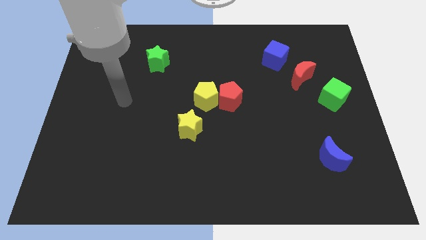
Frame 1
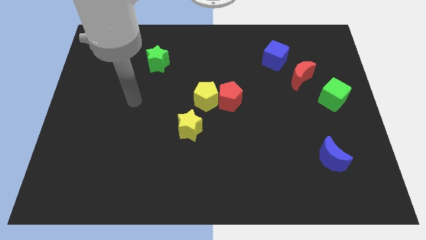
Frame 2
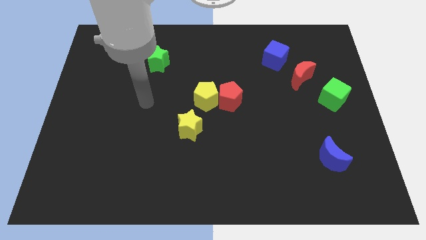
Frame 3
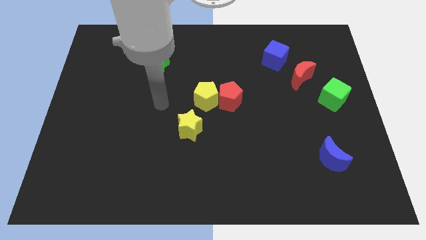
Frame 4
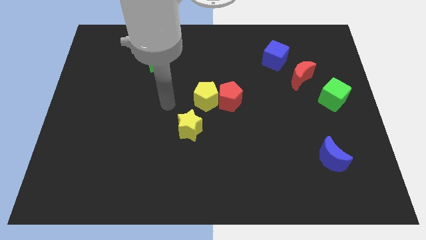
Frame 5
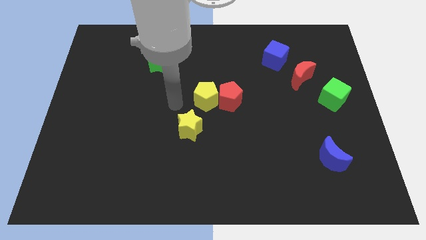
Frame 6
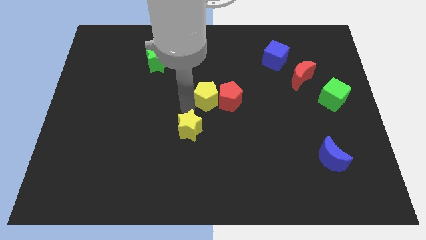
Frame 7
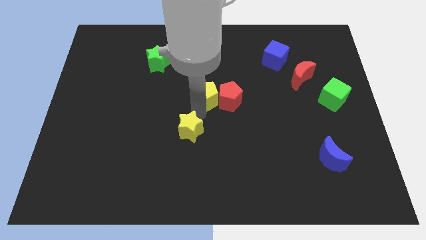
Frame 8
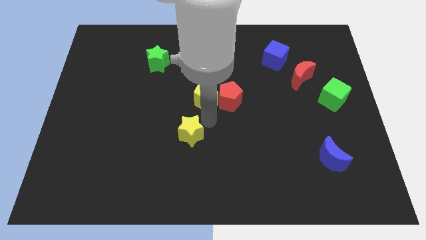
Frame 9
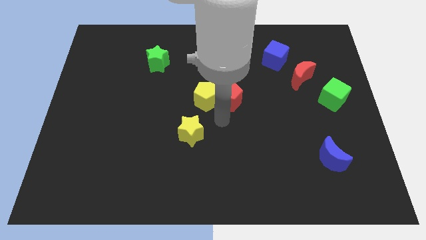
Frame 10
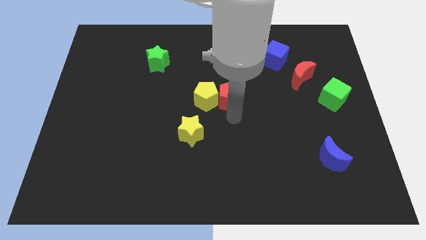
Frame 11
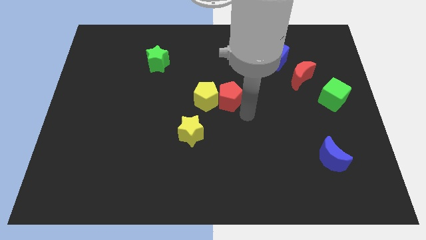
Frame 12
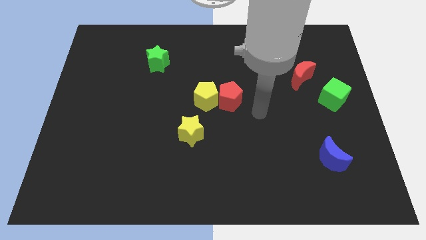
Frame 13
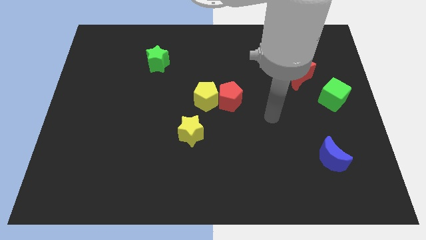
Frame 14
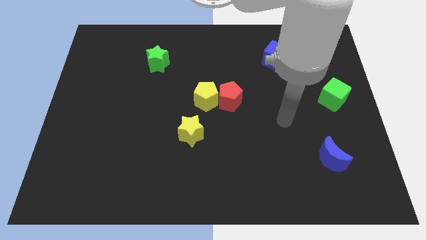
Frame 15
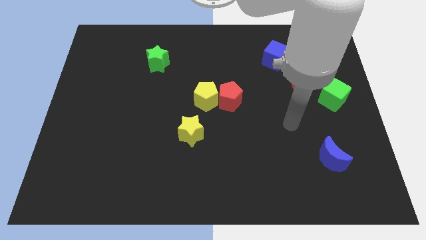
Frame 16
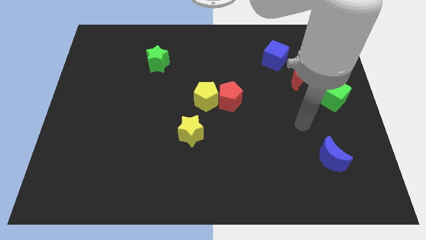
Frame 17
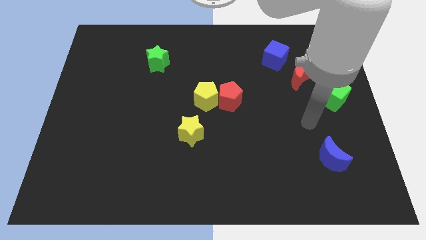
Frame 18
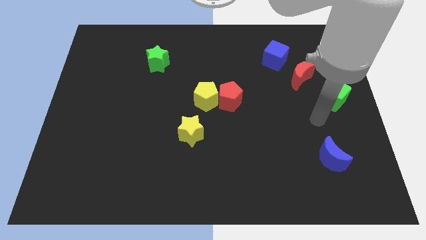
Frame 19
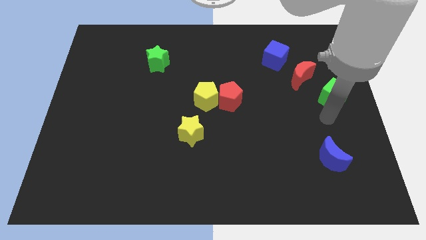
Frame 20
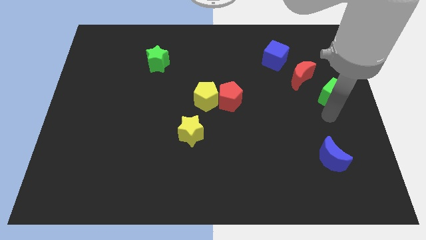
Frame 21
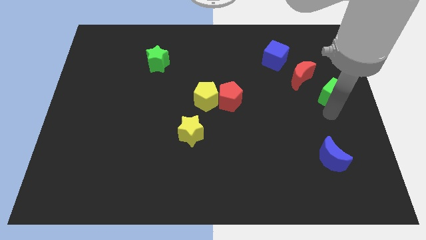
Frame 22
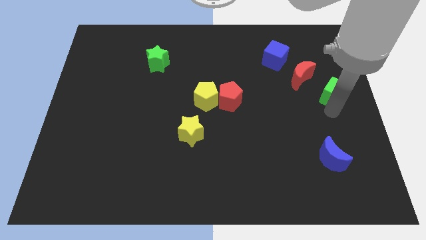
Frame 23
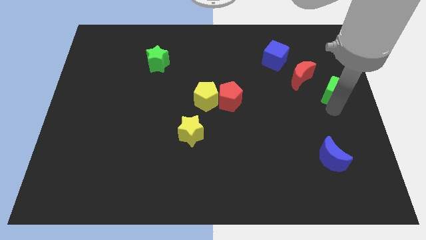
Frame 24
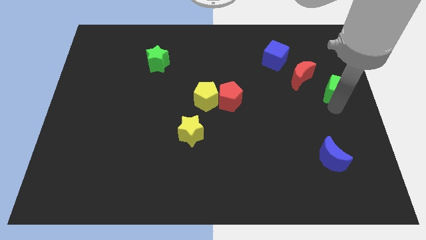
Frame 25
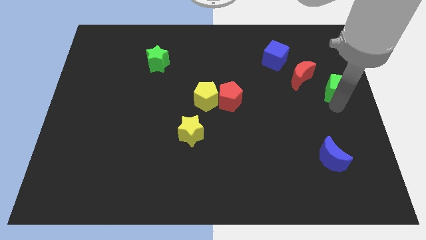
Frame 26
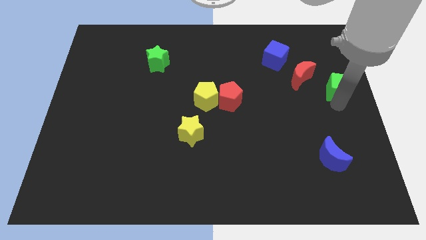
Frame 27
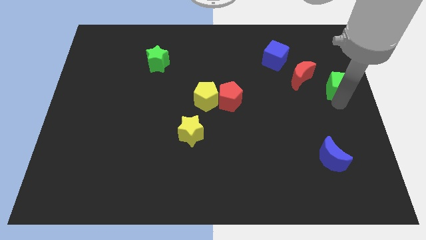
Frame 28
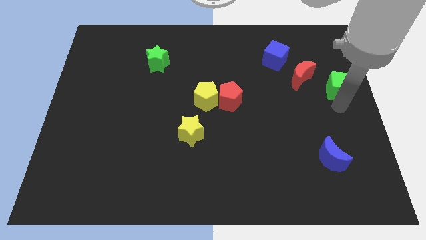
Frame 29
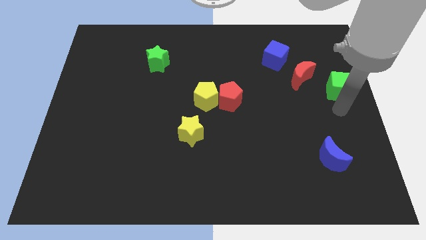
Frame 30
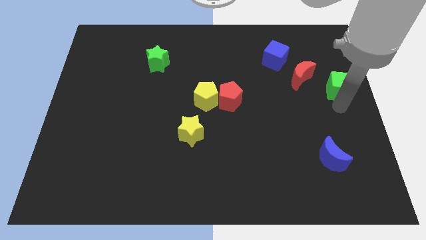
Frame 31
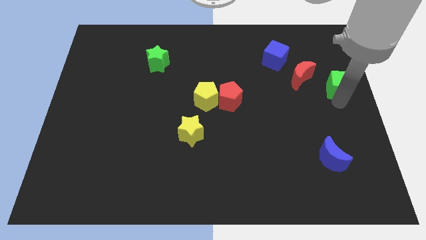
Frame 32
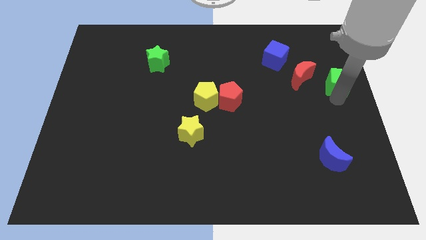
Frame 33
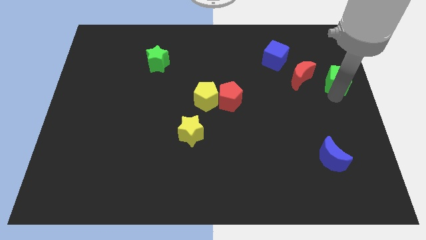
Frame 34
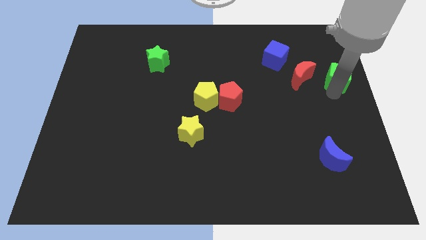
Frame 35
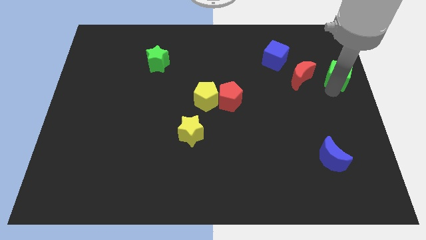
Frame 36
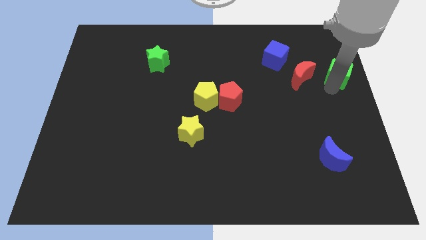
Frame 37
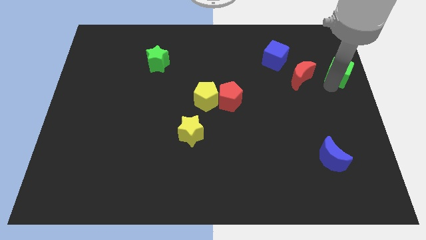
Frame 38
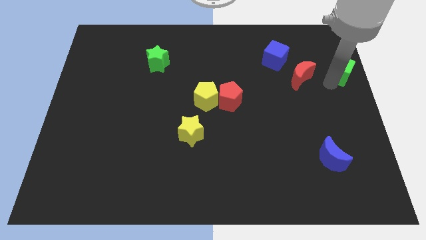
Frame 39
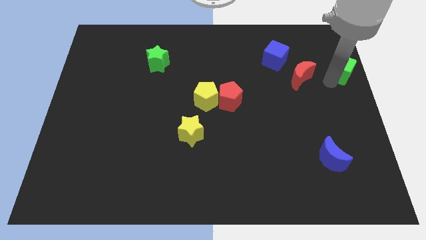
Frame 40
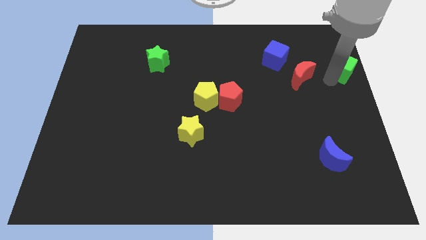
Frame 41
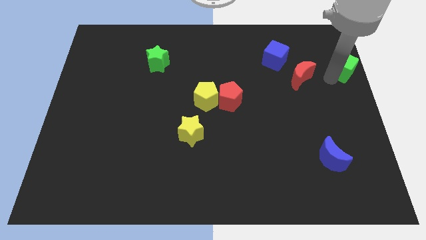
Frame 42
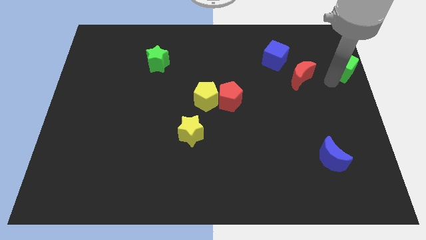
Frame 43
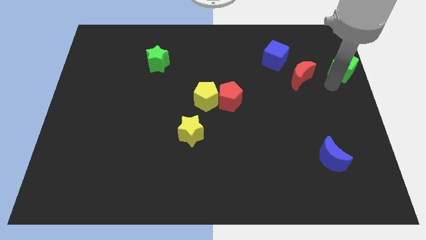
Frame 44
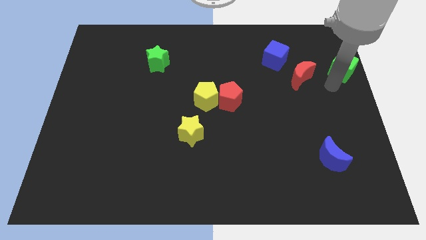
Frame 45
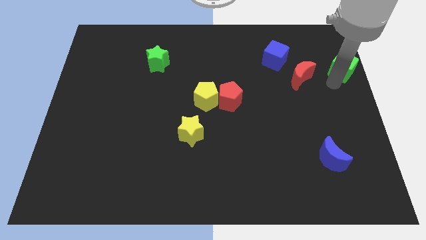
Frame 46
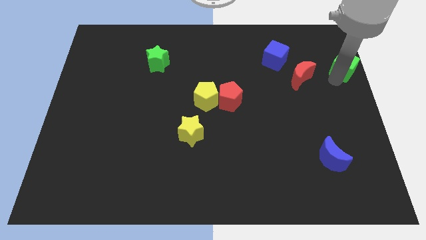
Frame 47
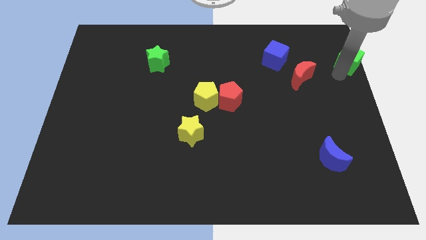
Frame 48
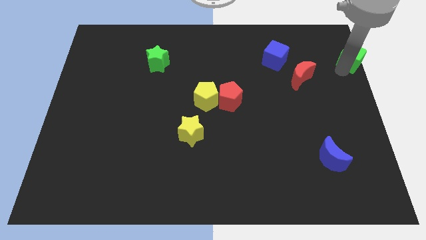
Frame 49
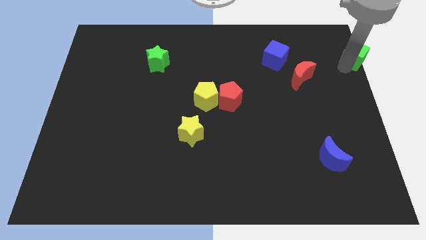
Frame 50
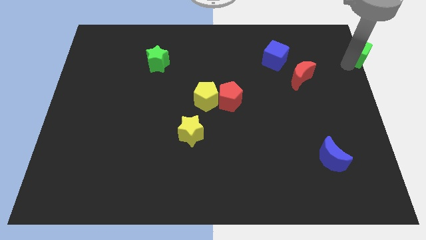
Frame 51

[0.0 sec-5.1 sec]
slide the green cube to the top right

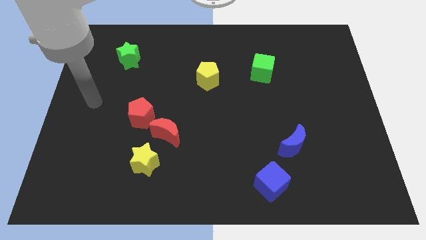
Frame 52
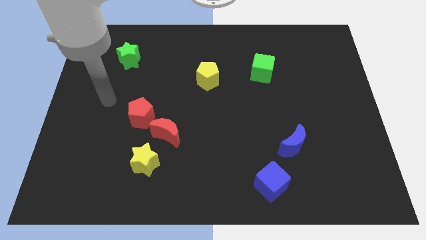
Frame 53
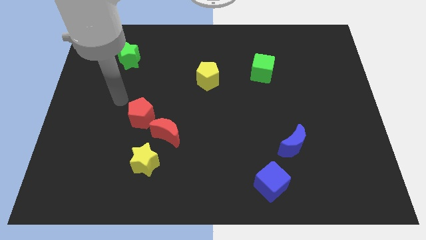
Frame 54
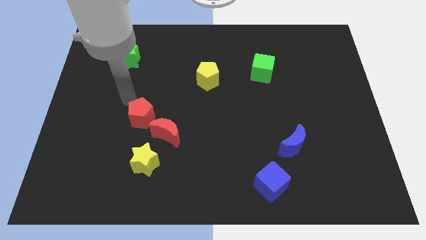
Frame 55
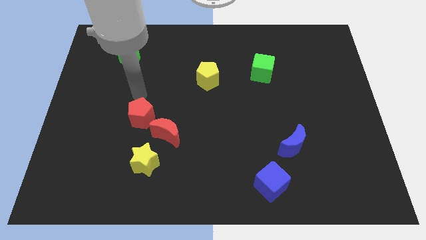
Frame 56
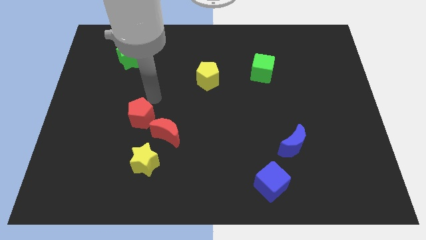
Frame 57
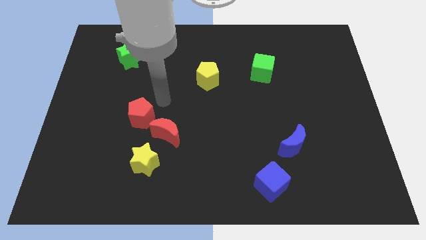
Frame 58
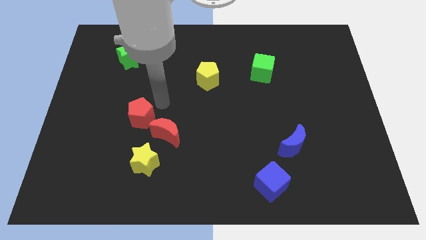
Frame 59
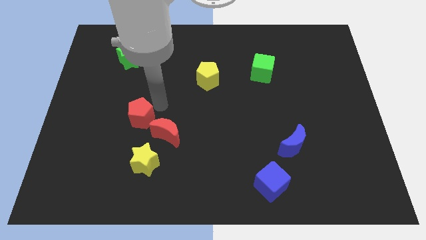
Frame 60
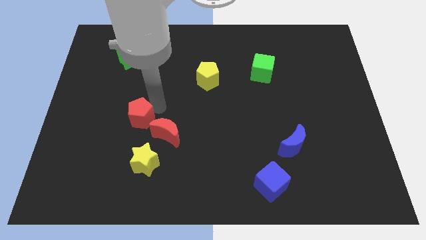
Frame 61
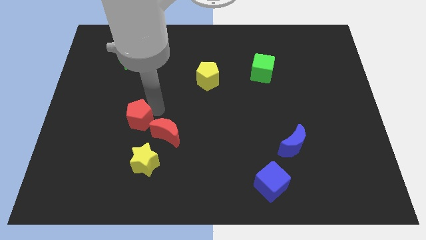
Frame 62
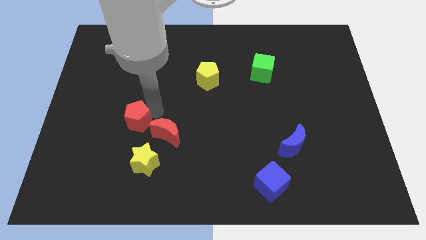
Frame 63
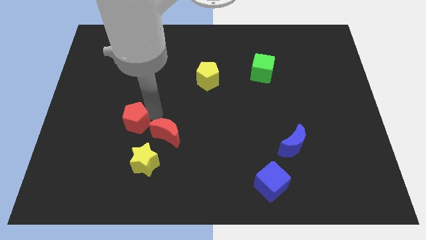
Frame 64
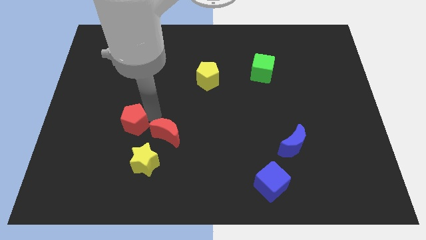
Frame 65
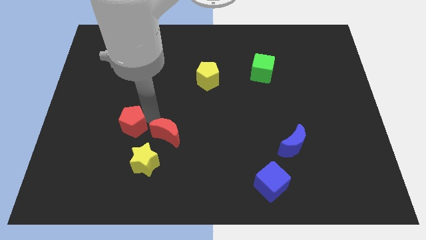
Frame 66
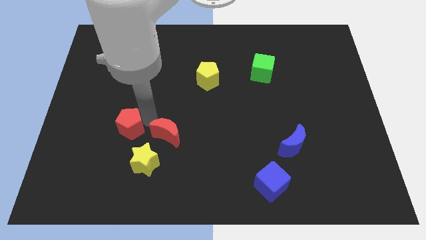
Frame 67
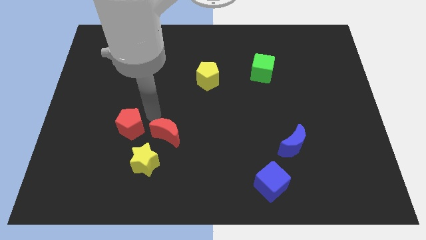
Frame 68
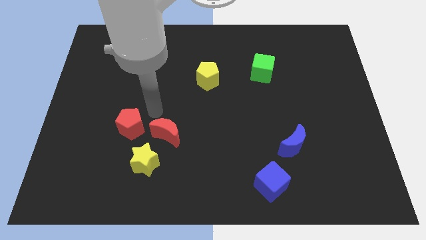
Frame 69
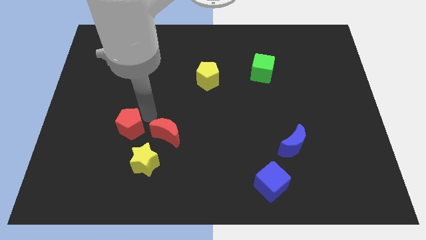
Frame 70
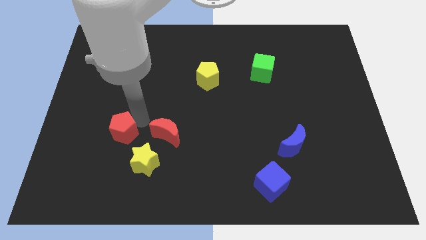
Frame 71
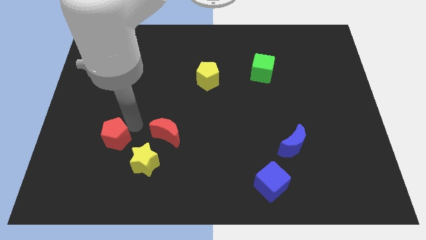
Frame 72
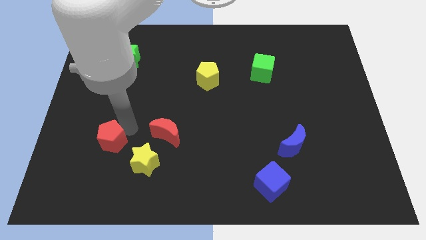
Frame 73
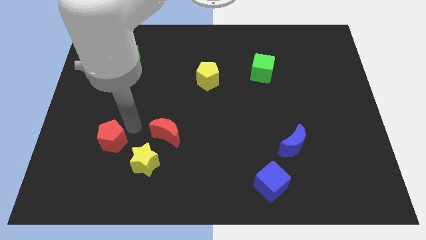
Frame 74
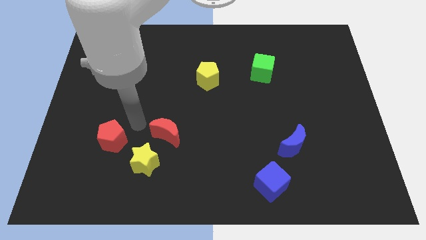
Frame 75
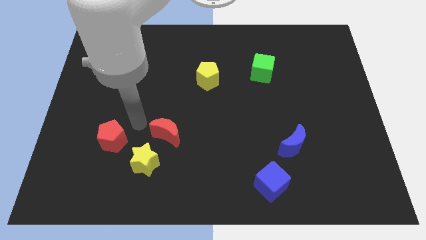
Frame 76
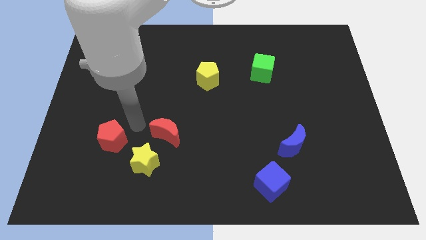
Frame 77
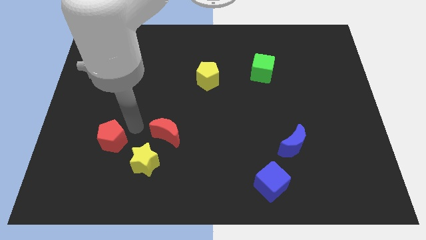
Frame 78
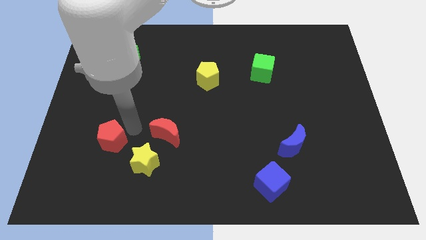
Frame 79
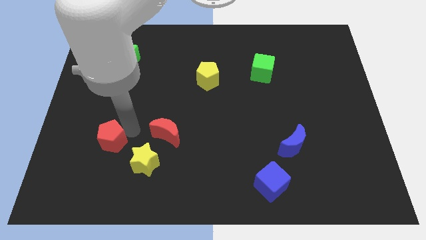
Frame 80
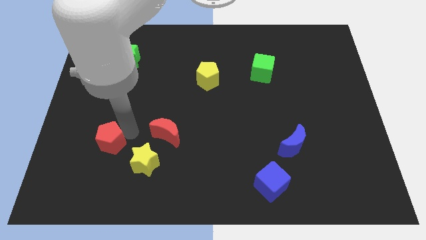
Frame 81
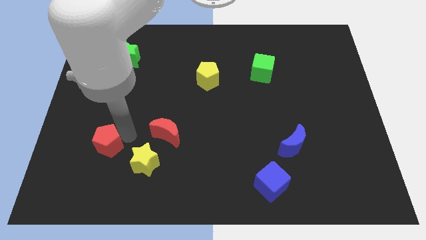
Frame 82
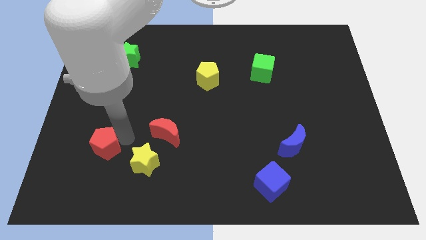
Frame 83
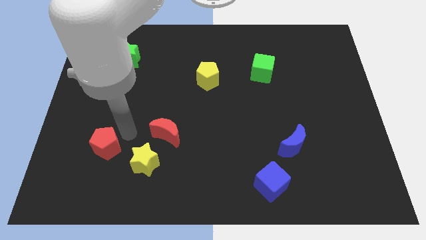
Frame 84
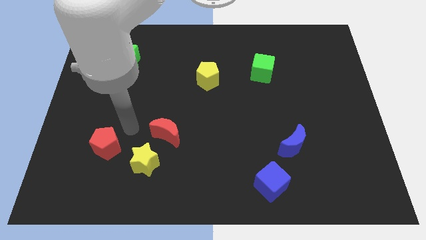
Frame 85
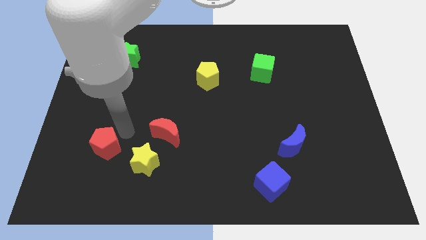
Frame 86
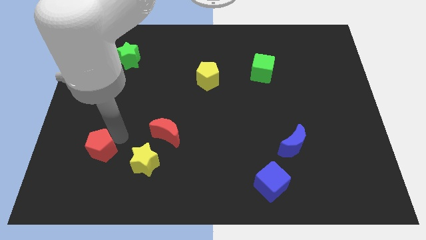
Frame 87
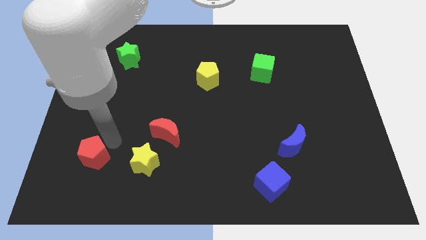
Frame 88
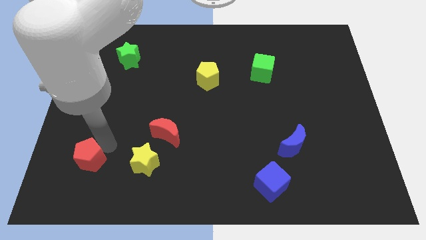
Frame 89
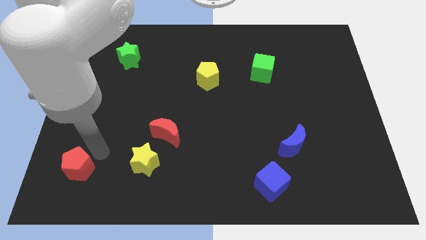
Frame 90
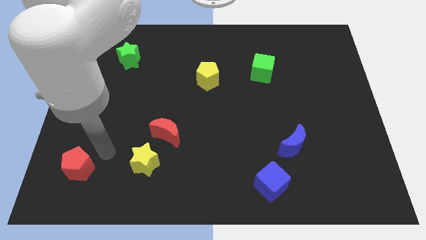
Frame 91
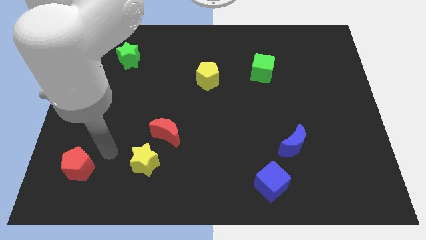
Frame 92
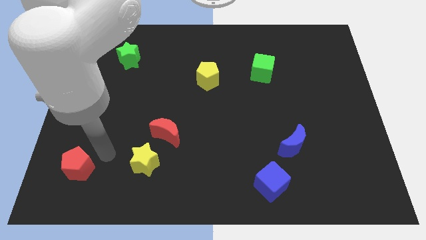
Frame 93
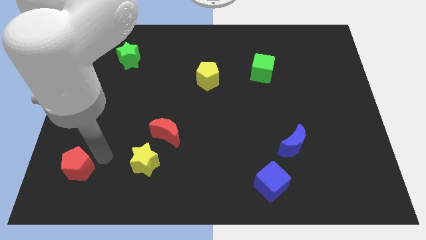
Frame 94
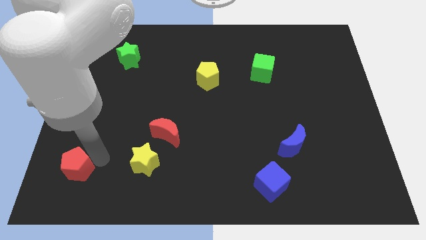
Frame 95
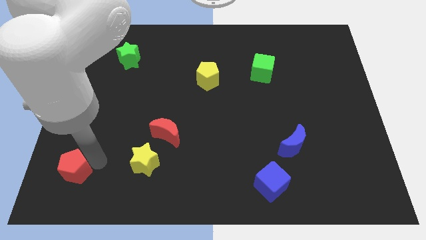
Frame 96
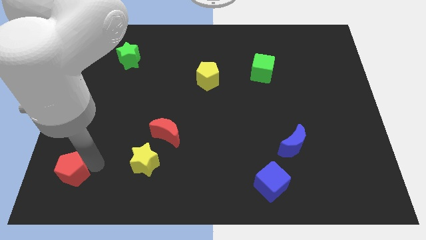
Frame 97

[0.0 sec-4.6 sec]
push the red pentagon to the bottom left of the board
